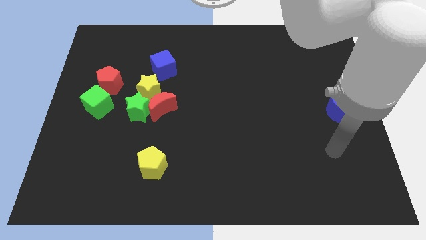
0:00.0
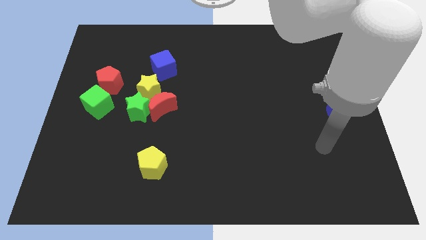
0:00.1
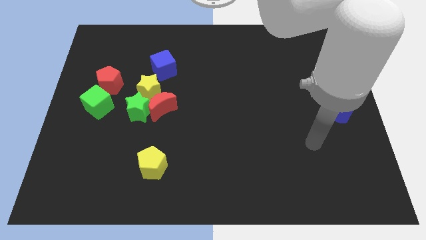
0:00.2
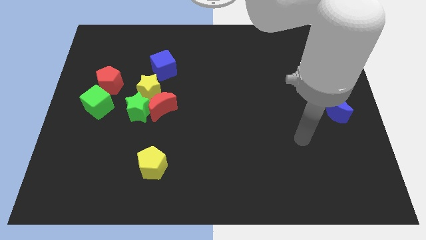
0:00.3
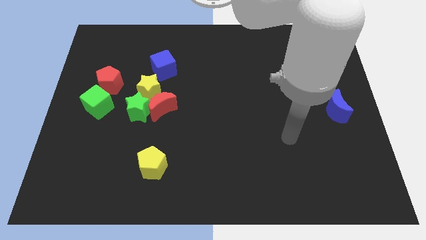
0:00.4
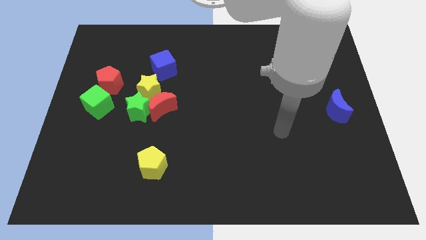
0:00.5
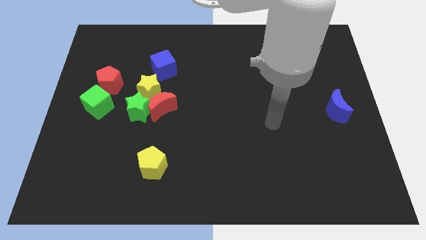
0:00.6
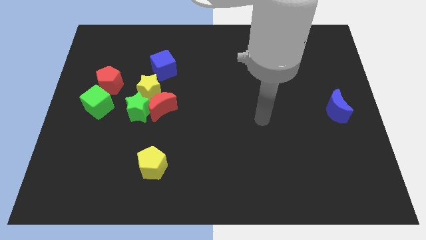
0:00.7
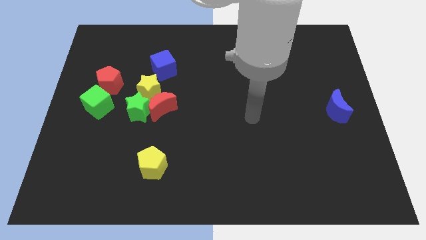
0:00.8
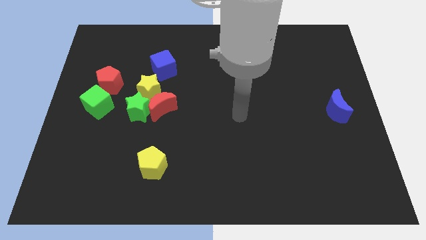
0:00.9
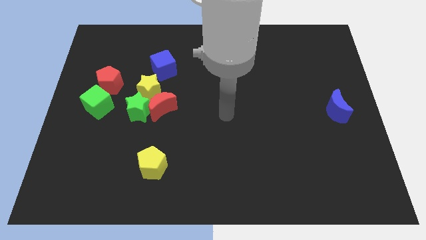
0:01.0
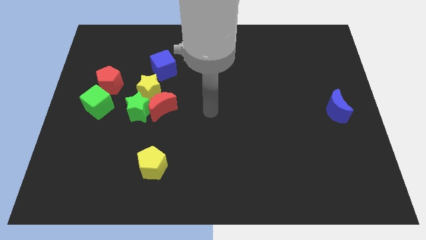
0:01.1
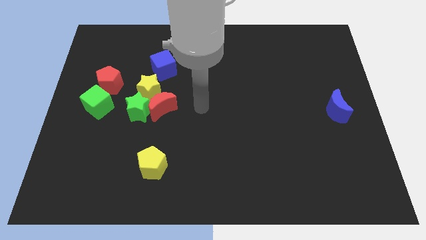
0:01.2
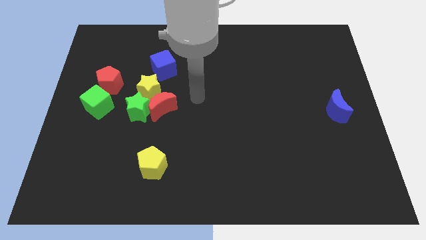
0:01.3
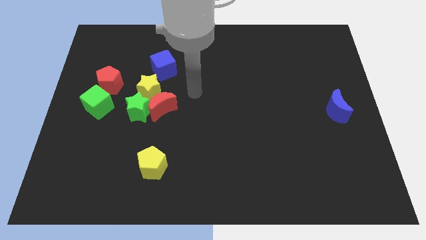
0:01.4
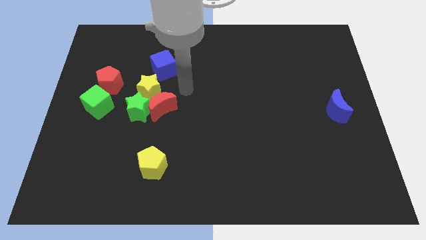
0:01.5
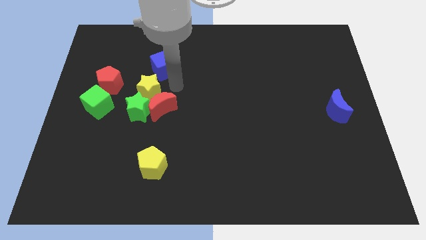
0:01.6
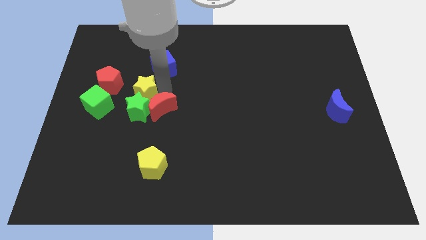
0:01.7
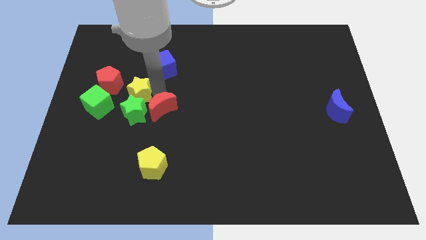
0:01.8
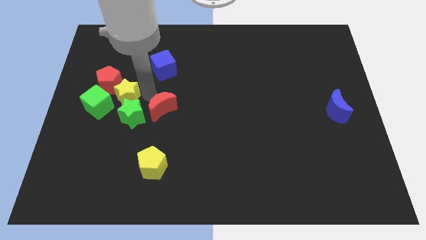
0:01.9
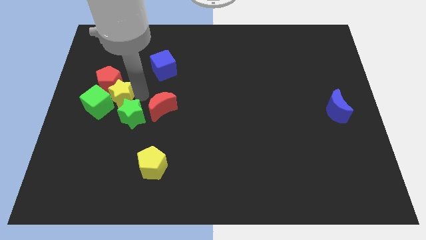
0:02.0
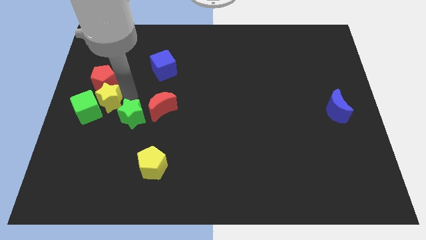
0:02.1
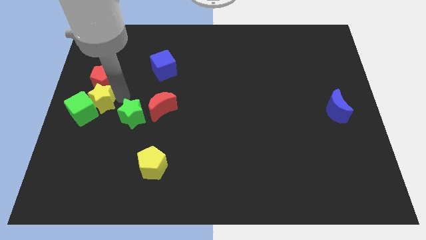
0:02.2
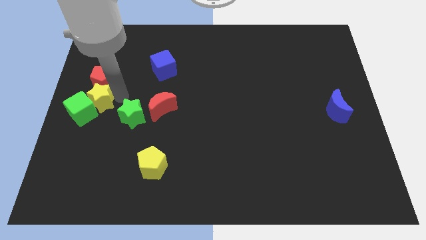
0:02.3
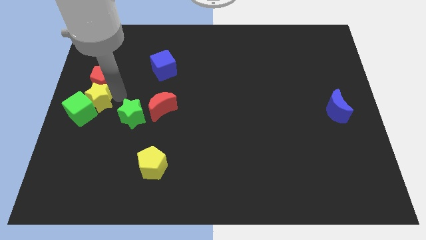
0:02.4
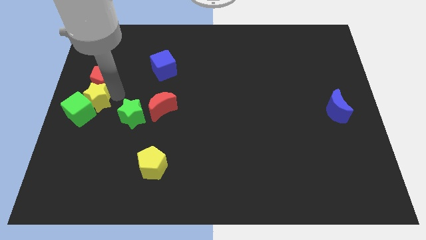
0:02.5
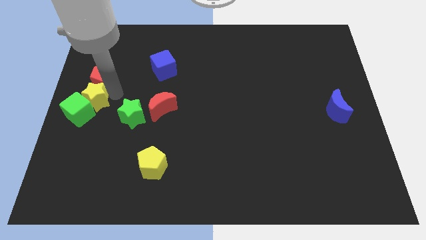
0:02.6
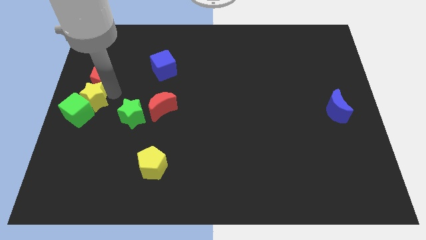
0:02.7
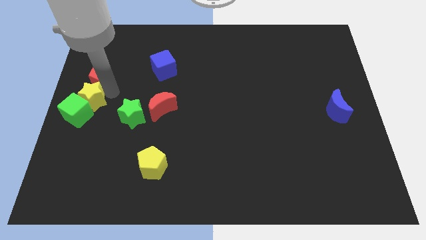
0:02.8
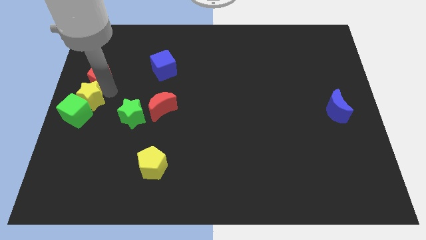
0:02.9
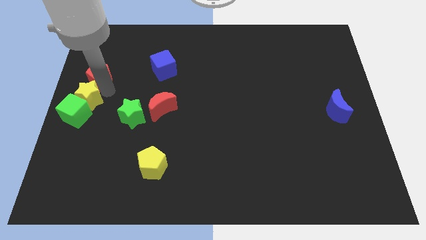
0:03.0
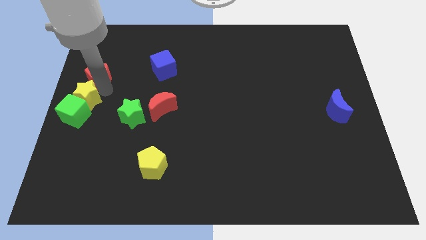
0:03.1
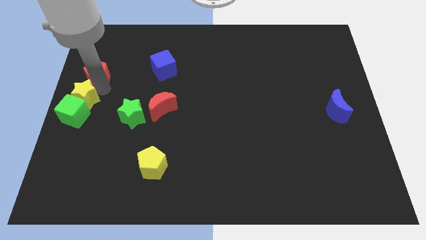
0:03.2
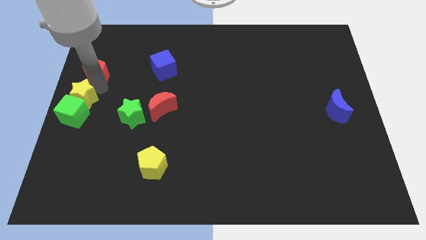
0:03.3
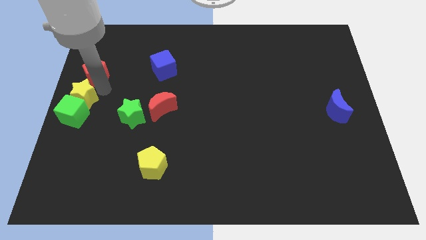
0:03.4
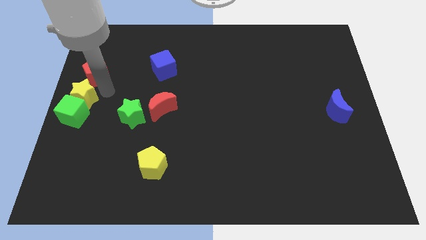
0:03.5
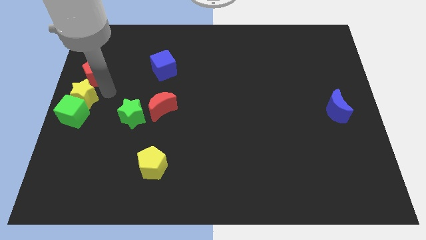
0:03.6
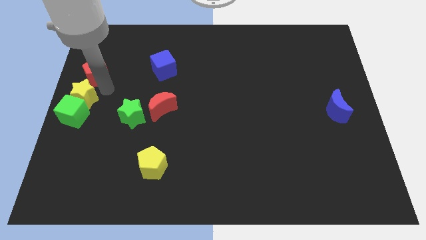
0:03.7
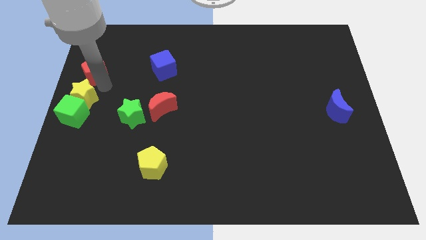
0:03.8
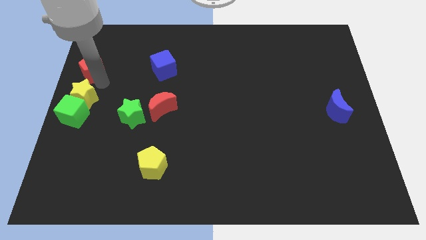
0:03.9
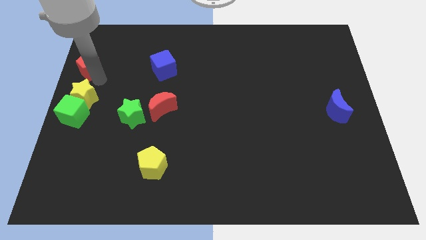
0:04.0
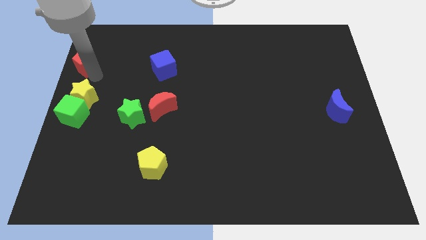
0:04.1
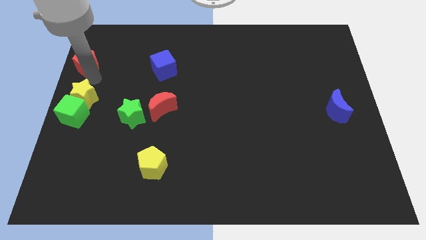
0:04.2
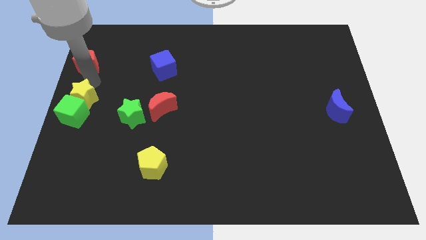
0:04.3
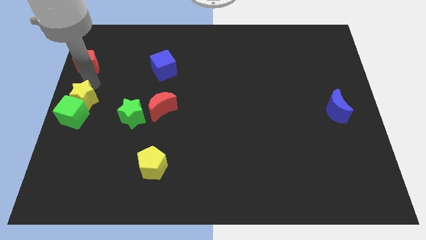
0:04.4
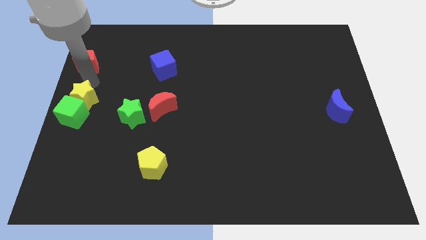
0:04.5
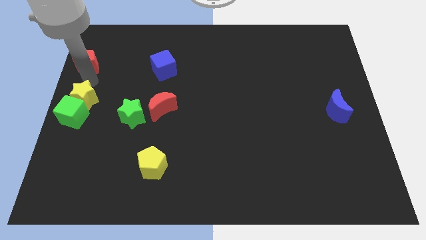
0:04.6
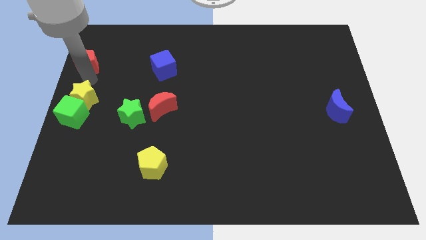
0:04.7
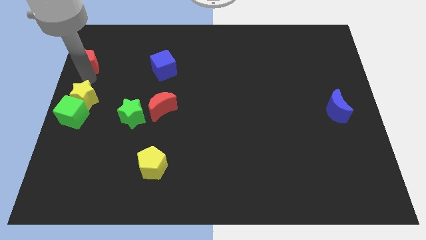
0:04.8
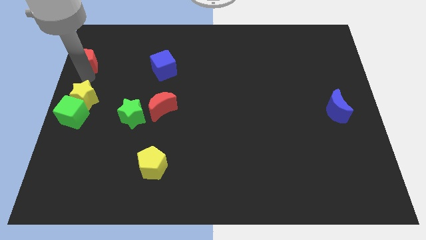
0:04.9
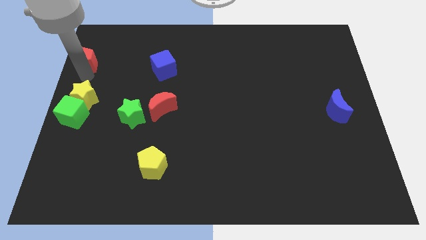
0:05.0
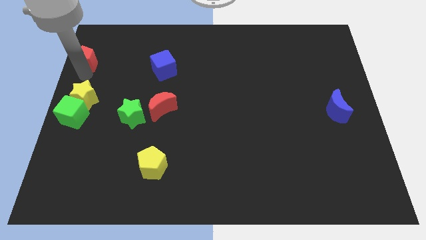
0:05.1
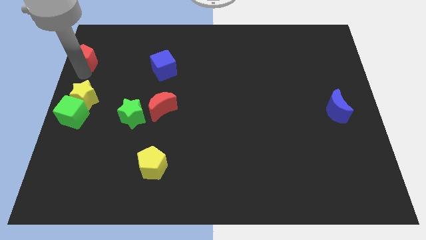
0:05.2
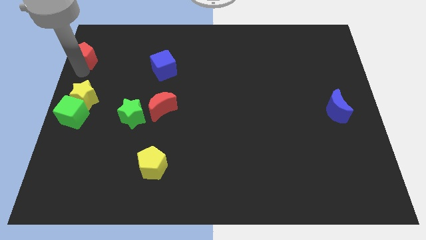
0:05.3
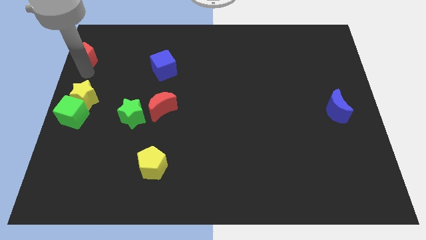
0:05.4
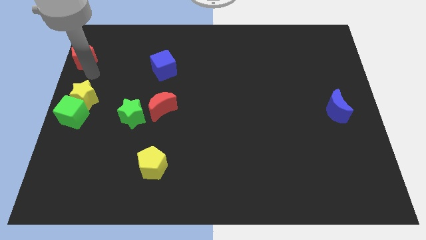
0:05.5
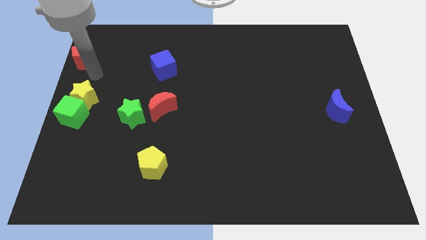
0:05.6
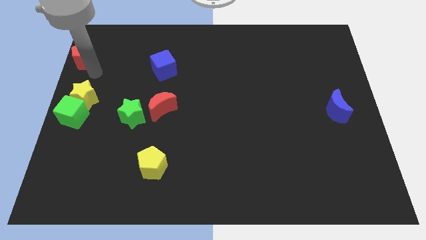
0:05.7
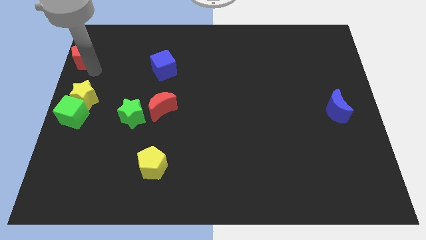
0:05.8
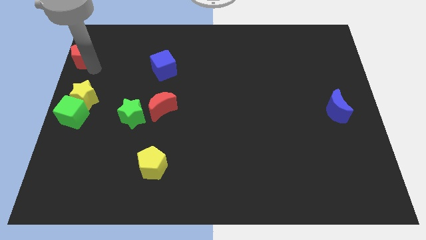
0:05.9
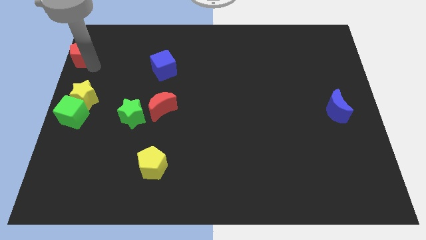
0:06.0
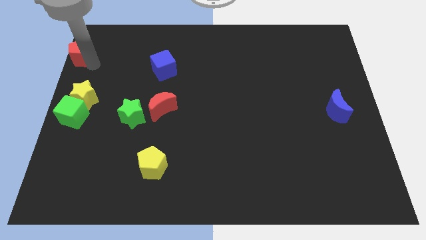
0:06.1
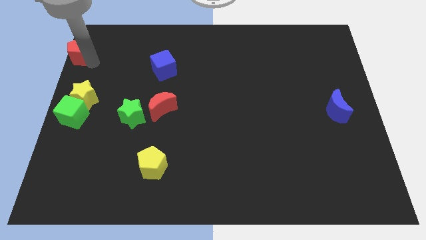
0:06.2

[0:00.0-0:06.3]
slide the red pentagon to the top left of the board

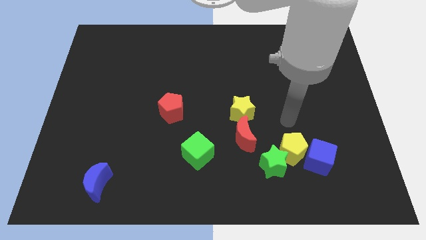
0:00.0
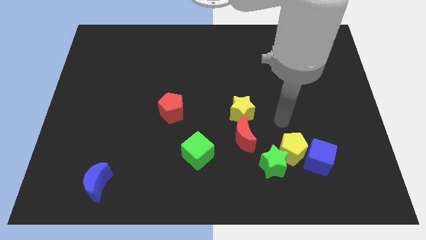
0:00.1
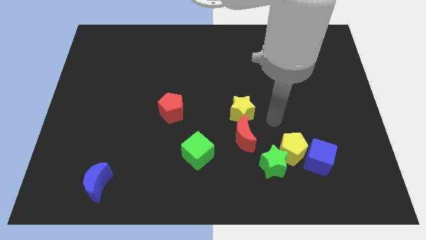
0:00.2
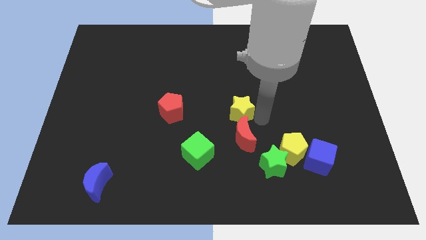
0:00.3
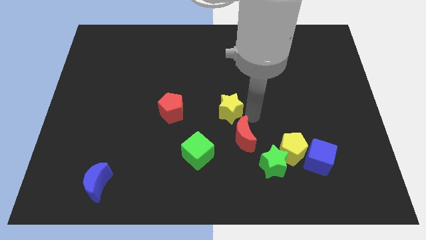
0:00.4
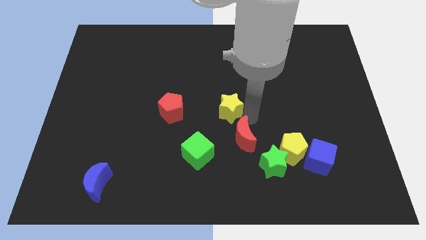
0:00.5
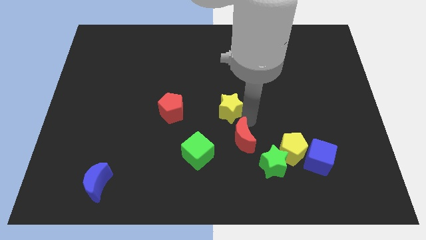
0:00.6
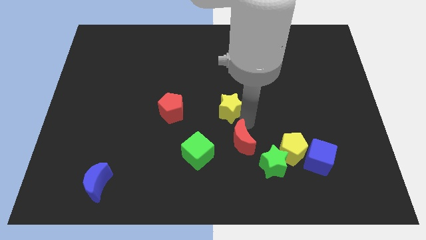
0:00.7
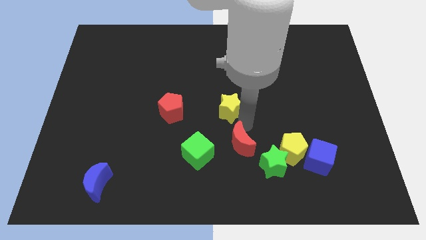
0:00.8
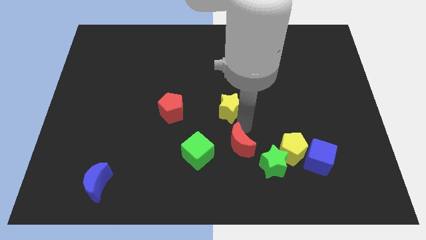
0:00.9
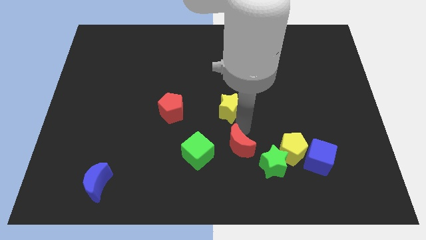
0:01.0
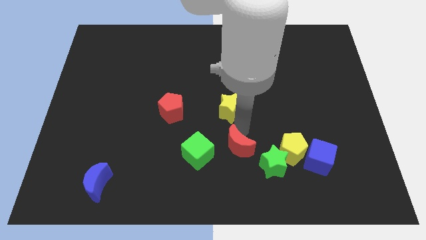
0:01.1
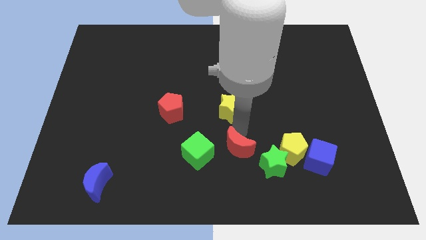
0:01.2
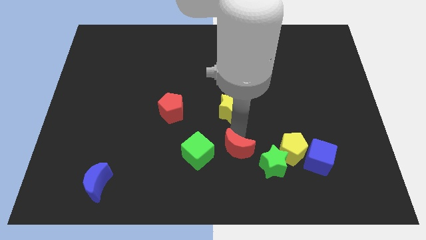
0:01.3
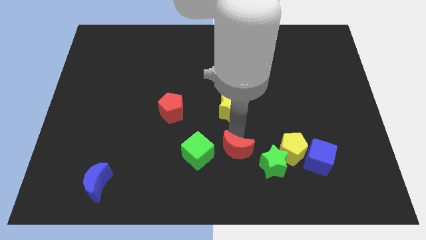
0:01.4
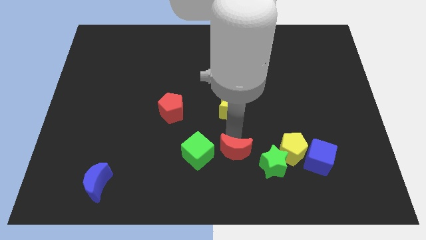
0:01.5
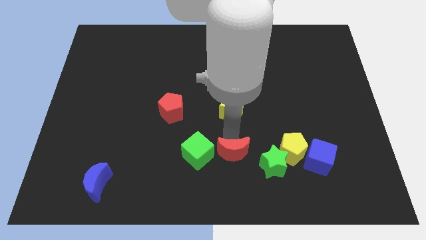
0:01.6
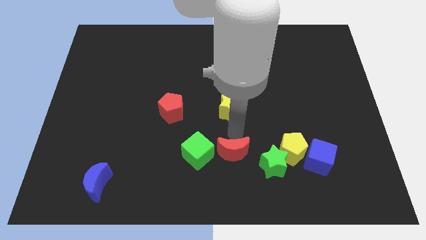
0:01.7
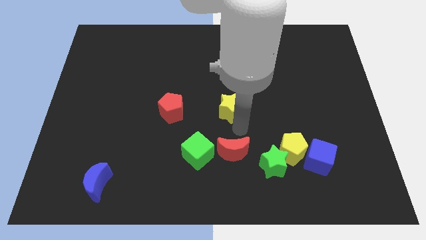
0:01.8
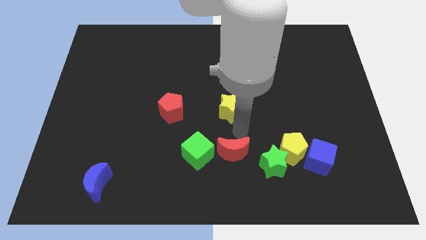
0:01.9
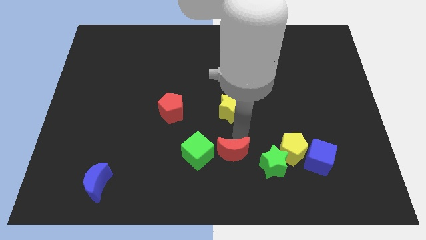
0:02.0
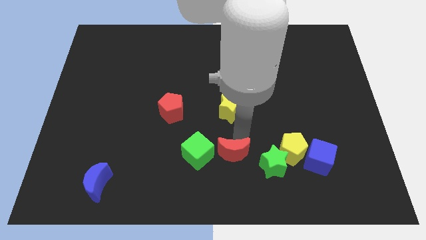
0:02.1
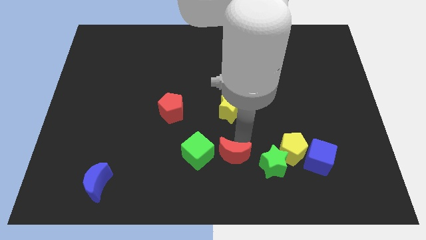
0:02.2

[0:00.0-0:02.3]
push the red moon to the bottom
